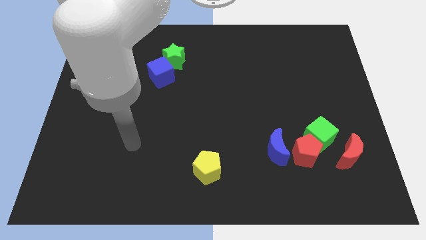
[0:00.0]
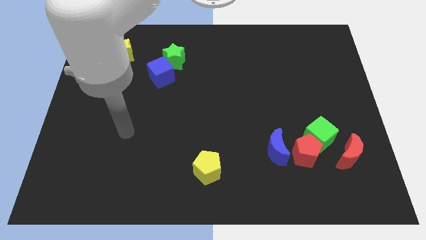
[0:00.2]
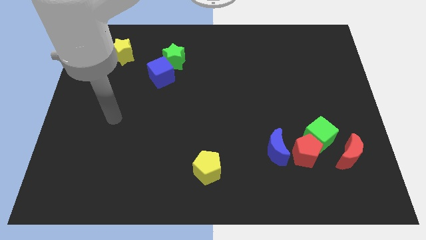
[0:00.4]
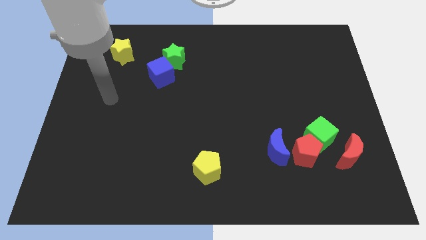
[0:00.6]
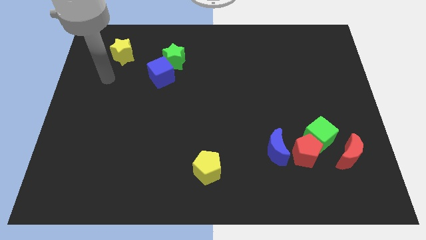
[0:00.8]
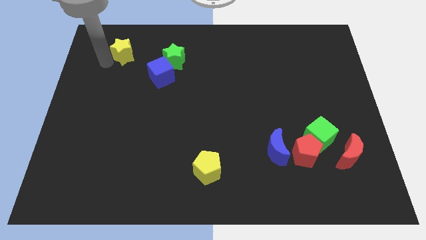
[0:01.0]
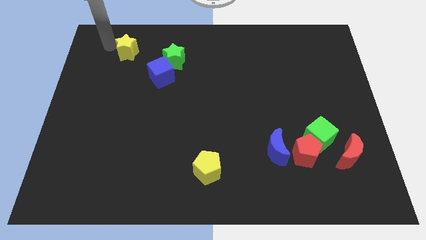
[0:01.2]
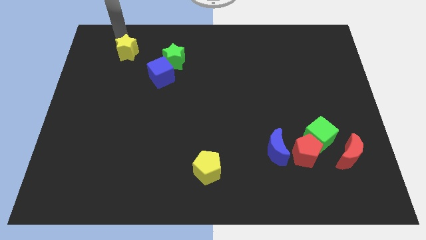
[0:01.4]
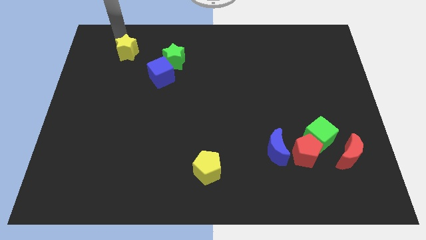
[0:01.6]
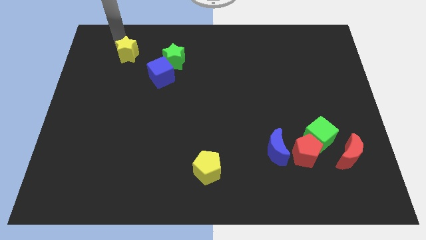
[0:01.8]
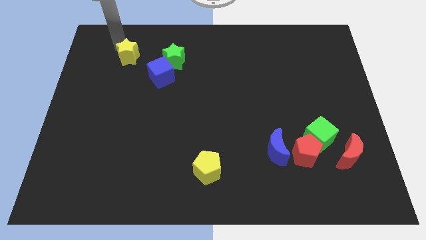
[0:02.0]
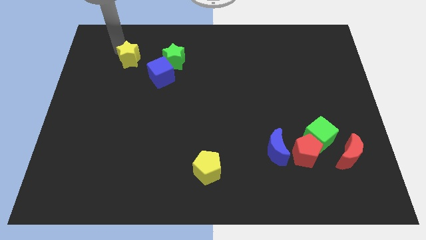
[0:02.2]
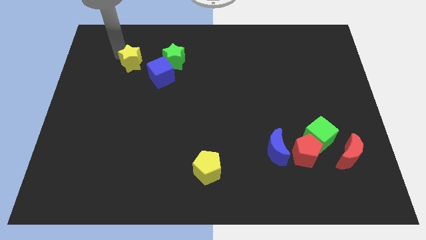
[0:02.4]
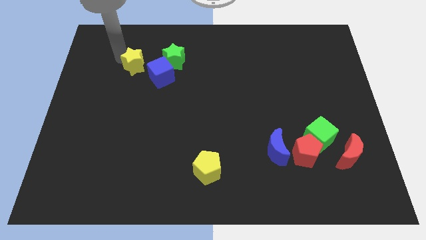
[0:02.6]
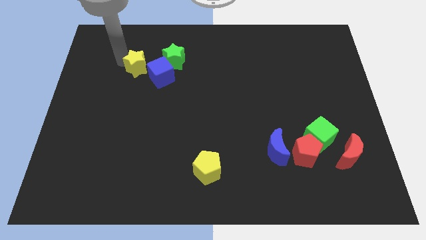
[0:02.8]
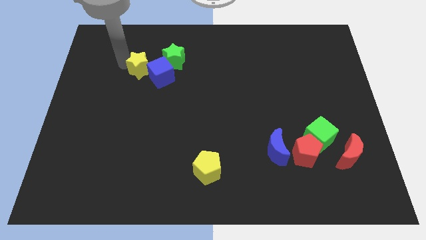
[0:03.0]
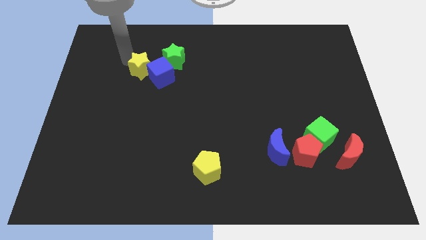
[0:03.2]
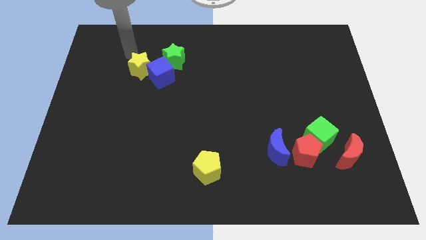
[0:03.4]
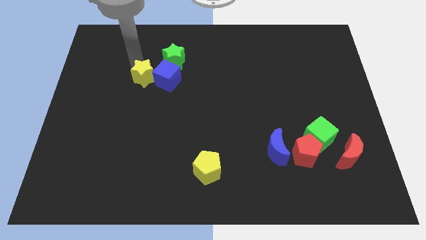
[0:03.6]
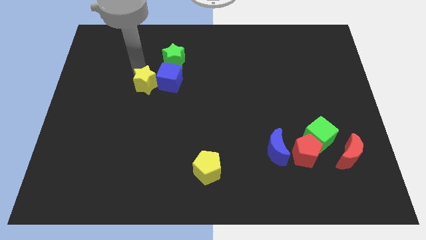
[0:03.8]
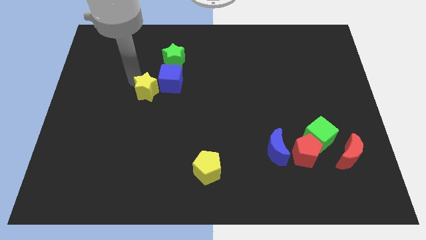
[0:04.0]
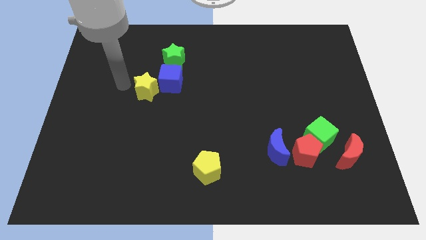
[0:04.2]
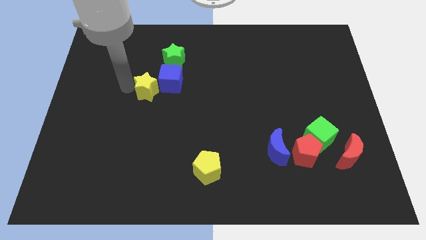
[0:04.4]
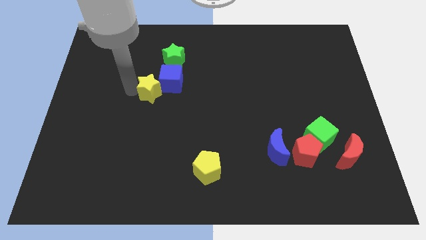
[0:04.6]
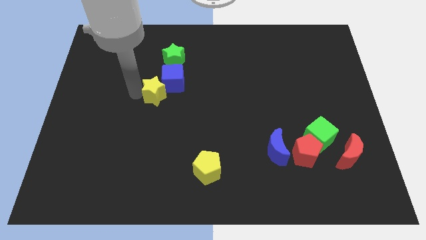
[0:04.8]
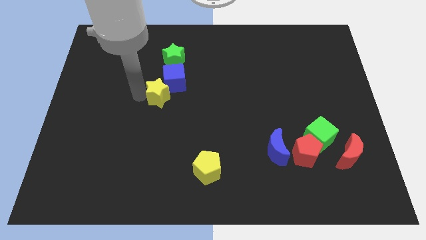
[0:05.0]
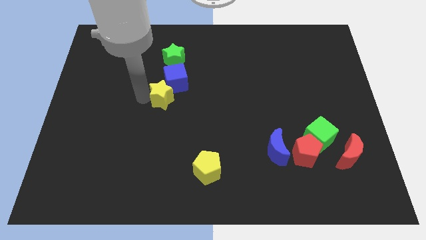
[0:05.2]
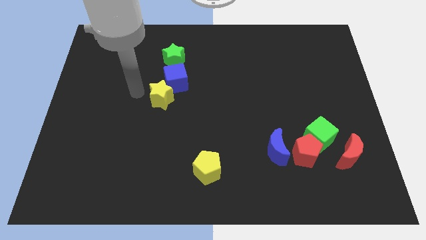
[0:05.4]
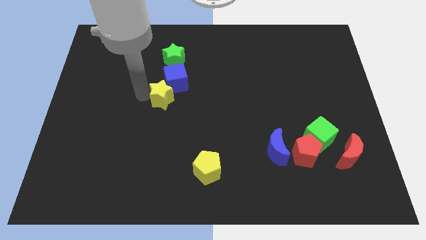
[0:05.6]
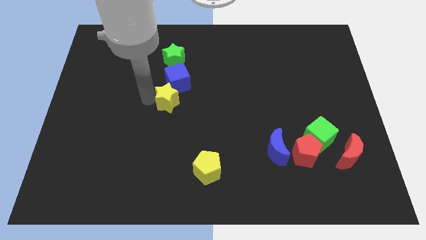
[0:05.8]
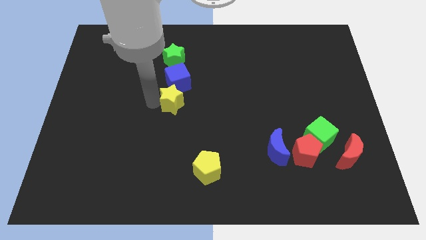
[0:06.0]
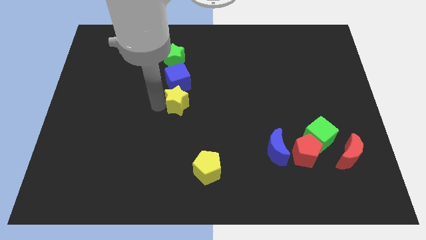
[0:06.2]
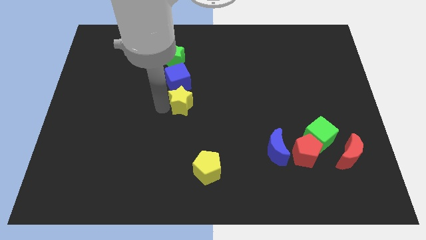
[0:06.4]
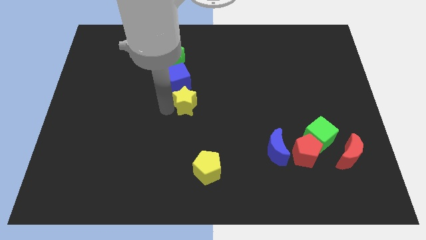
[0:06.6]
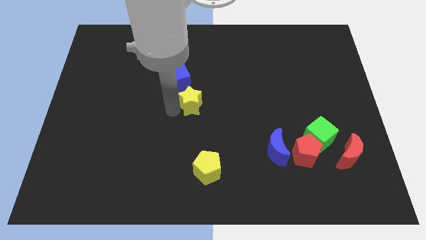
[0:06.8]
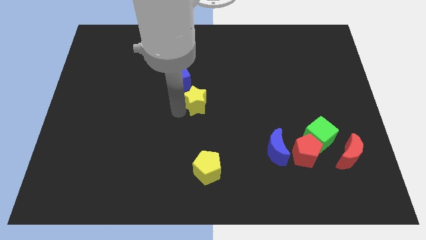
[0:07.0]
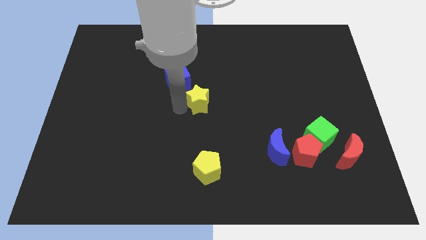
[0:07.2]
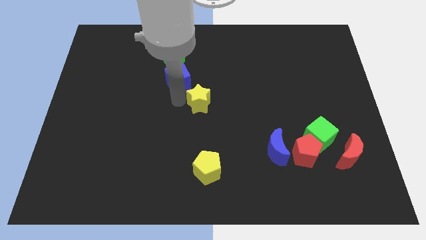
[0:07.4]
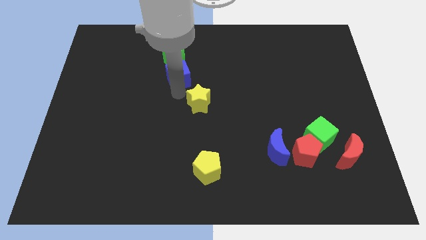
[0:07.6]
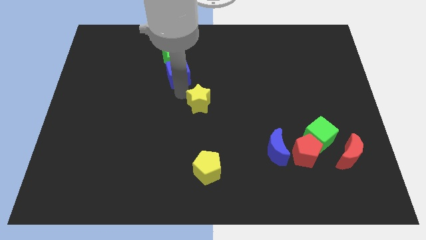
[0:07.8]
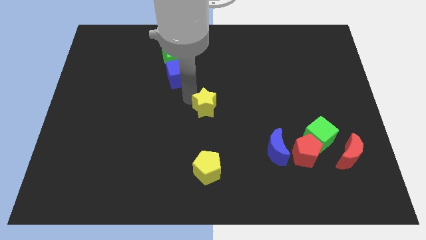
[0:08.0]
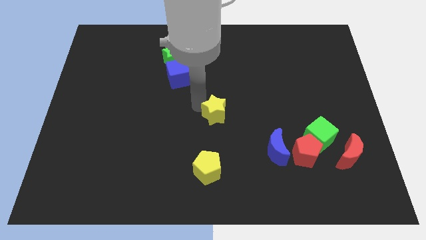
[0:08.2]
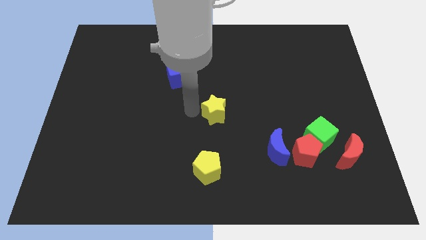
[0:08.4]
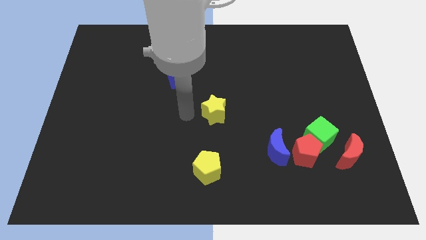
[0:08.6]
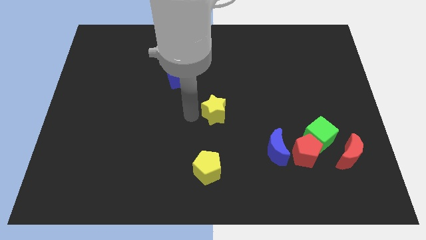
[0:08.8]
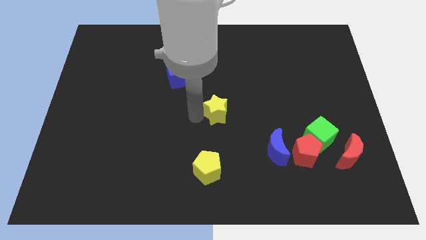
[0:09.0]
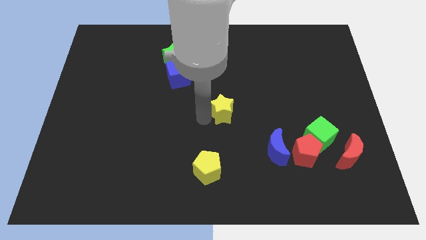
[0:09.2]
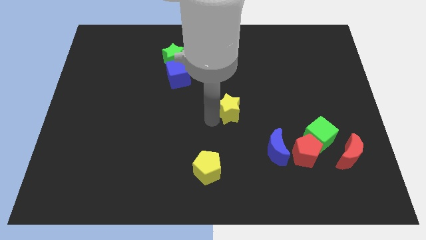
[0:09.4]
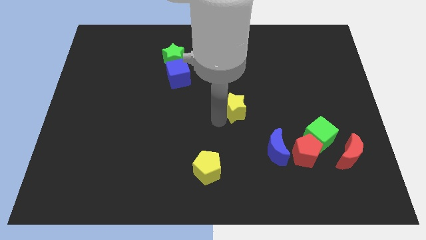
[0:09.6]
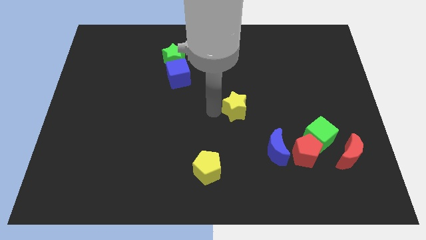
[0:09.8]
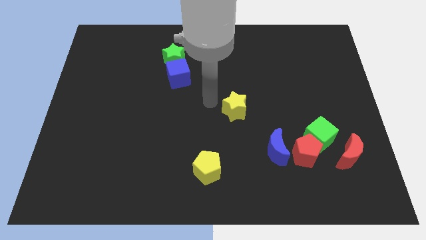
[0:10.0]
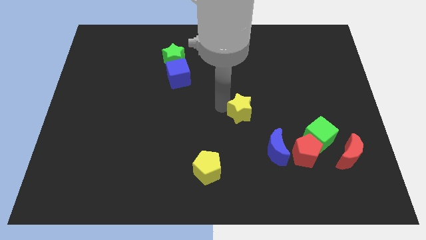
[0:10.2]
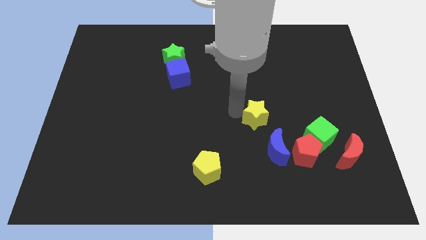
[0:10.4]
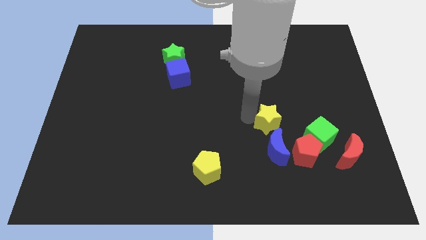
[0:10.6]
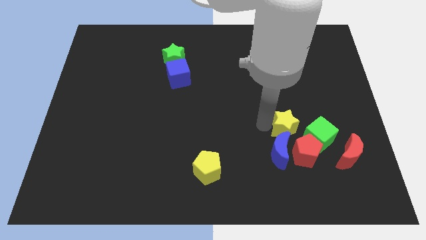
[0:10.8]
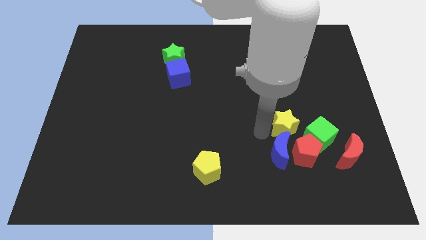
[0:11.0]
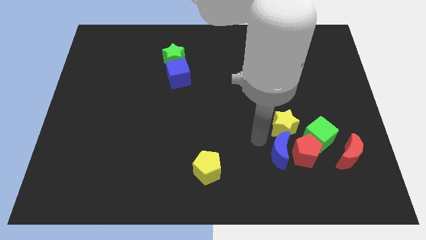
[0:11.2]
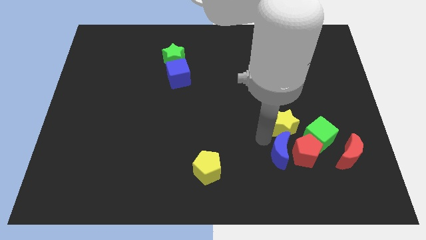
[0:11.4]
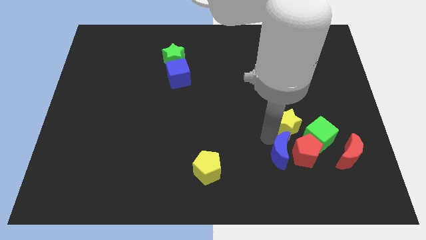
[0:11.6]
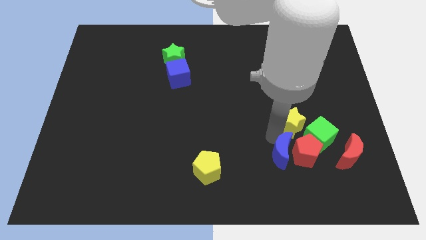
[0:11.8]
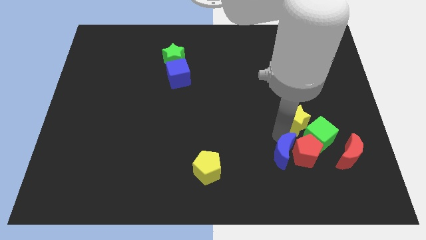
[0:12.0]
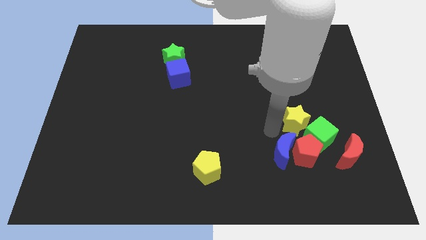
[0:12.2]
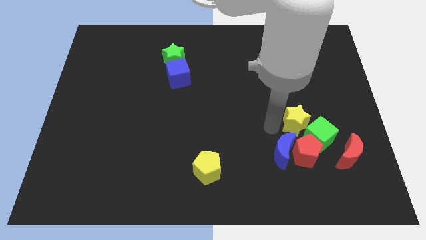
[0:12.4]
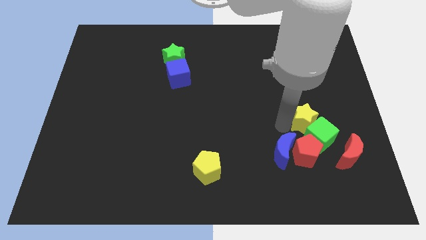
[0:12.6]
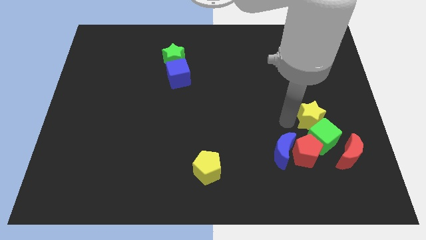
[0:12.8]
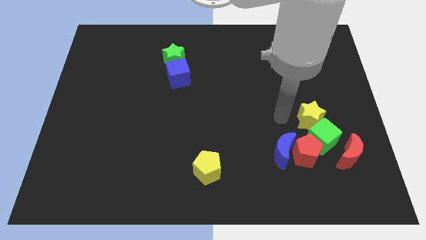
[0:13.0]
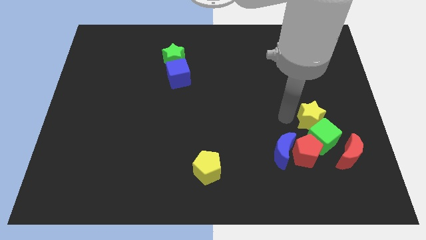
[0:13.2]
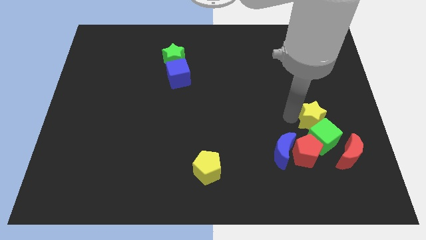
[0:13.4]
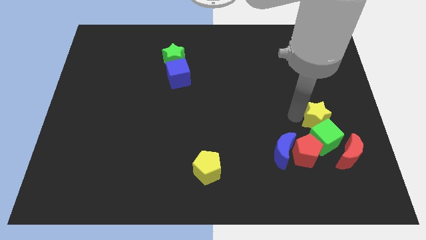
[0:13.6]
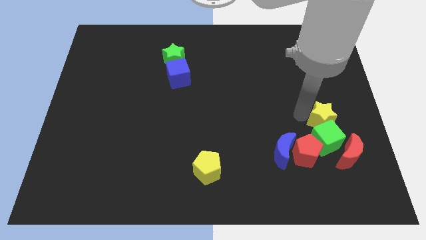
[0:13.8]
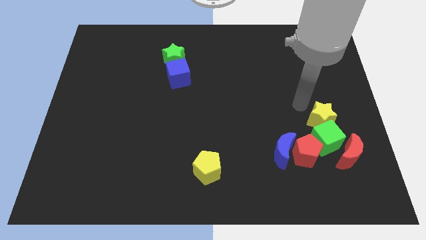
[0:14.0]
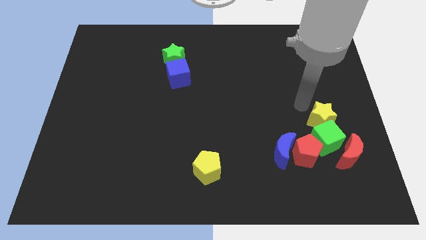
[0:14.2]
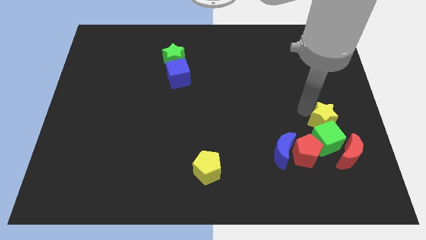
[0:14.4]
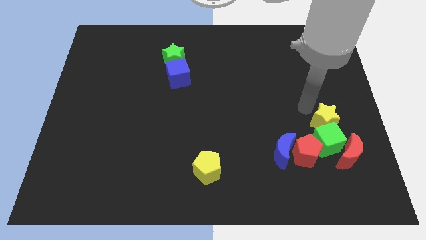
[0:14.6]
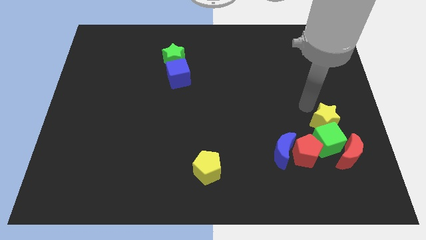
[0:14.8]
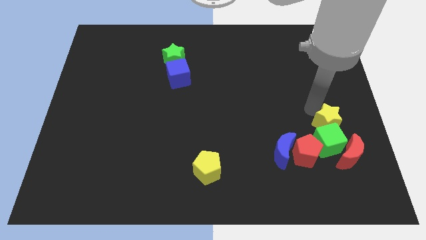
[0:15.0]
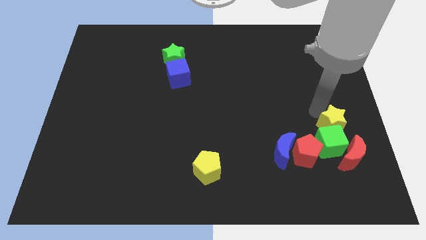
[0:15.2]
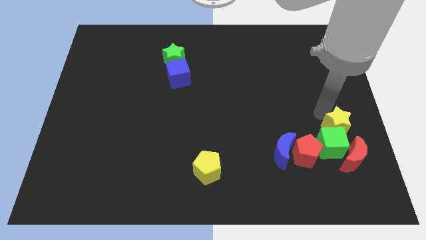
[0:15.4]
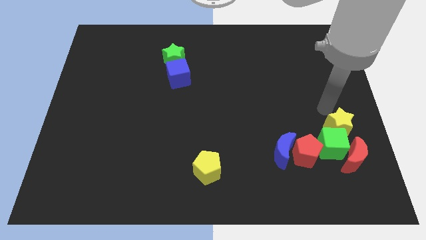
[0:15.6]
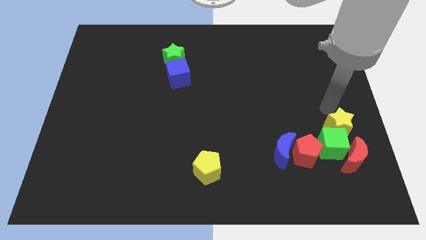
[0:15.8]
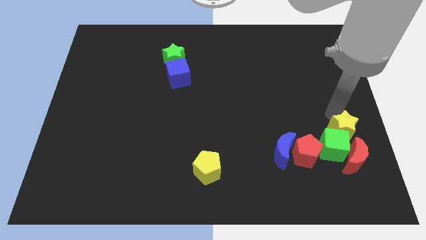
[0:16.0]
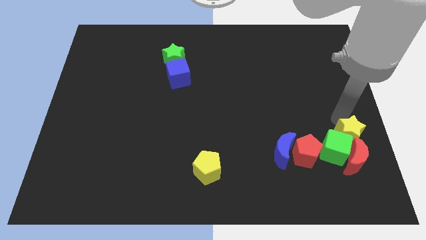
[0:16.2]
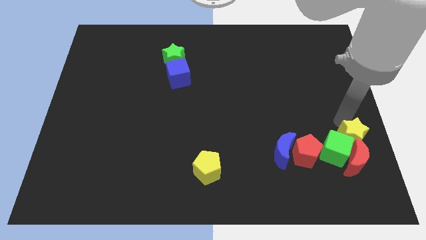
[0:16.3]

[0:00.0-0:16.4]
slide the yellow star to the red moon
